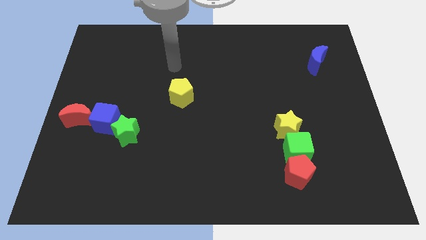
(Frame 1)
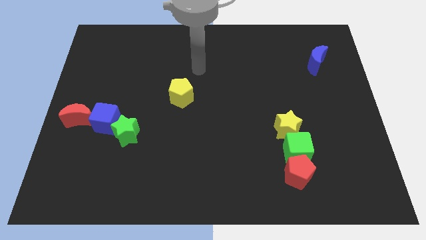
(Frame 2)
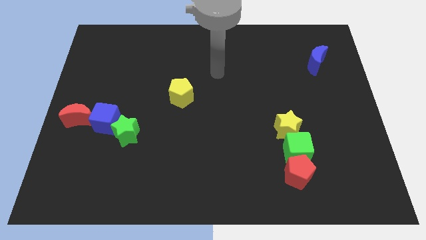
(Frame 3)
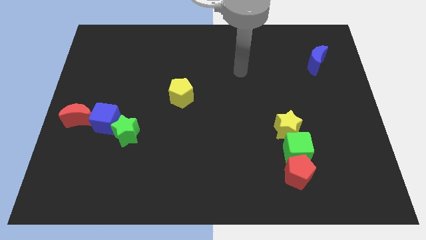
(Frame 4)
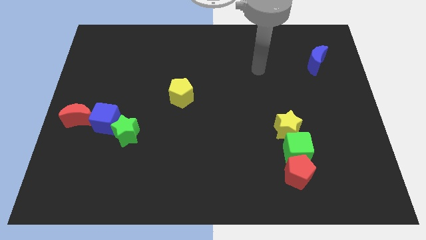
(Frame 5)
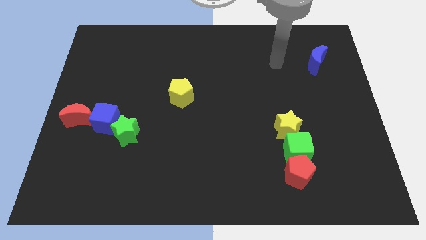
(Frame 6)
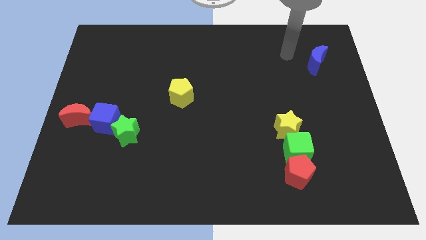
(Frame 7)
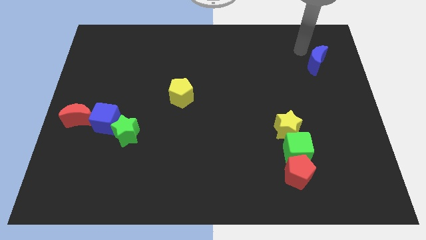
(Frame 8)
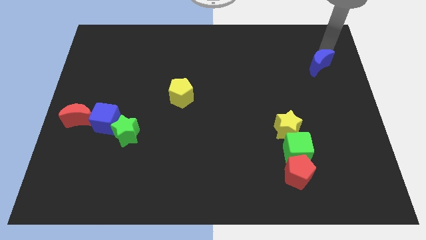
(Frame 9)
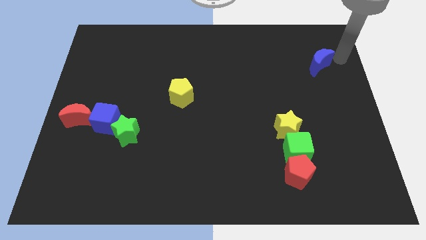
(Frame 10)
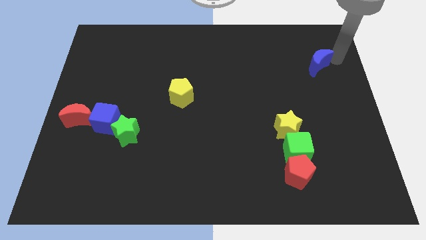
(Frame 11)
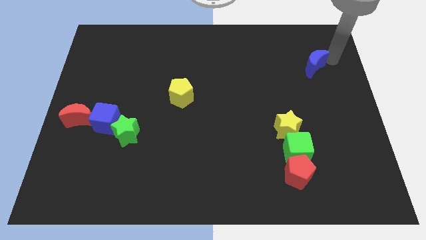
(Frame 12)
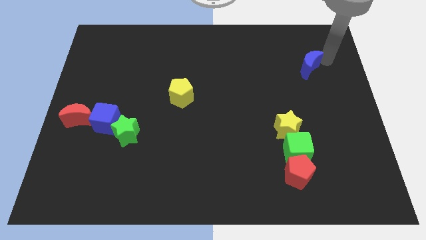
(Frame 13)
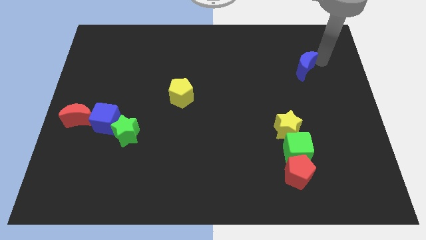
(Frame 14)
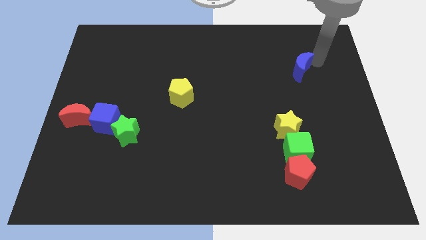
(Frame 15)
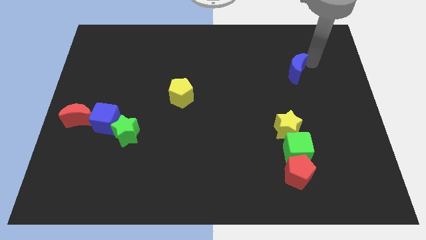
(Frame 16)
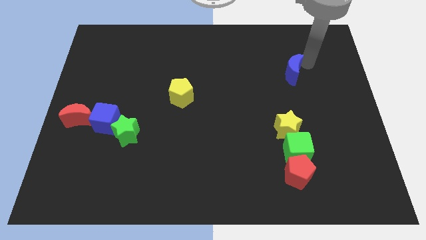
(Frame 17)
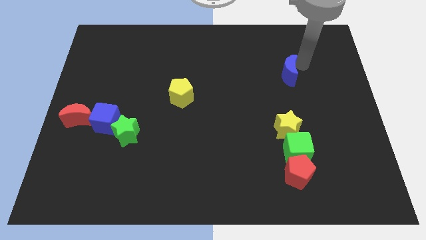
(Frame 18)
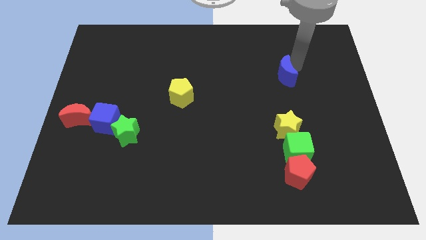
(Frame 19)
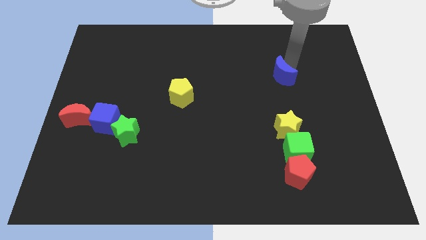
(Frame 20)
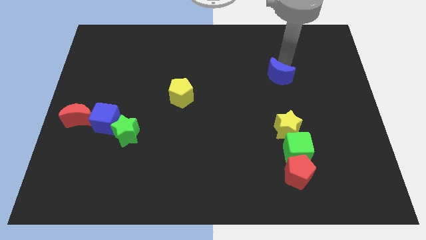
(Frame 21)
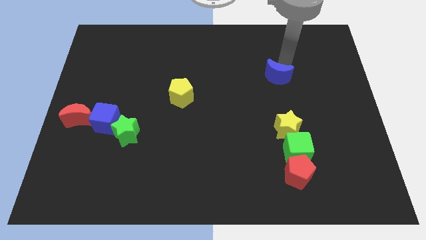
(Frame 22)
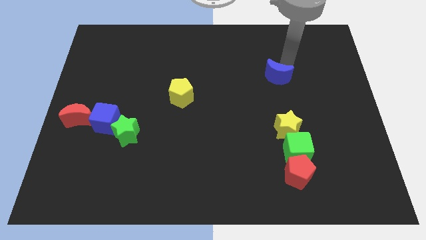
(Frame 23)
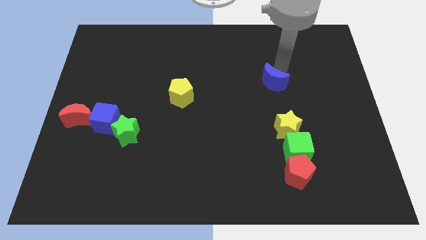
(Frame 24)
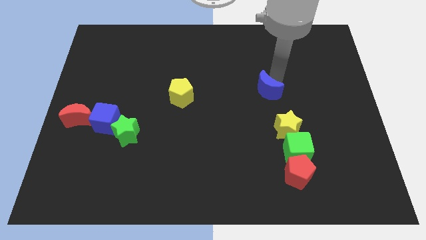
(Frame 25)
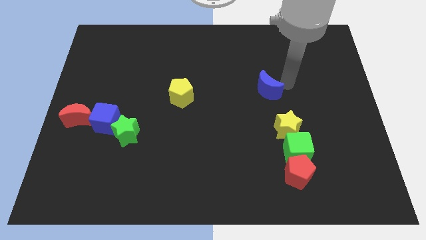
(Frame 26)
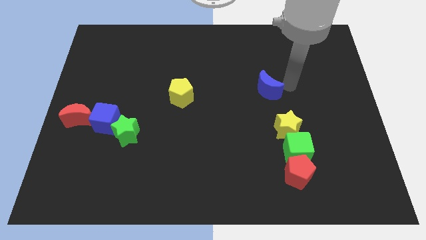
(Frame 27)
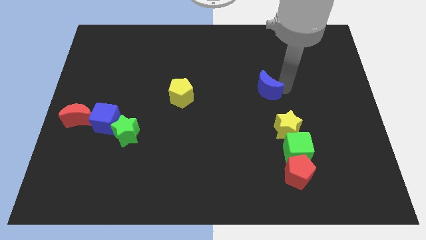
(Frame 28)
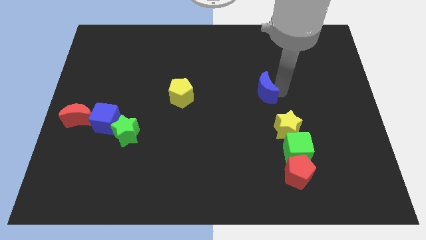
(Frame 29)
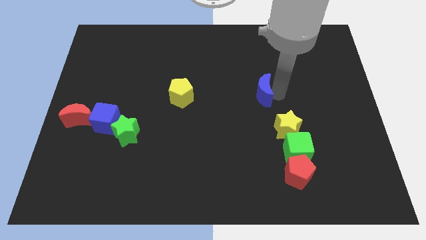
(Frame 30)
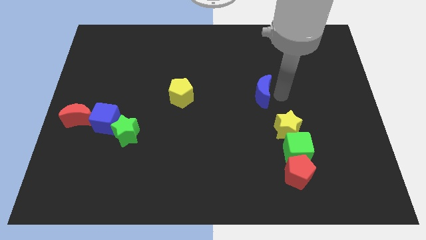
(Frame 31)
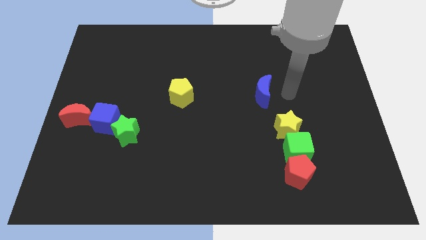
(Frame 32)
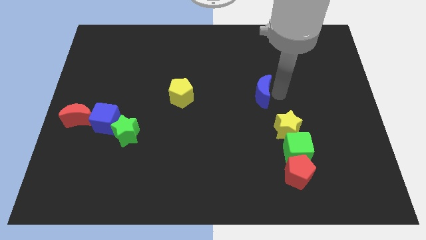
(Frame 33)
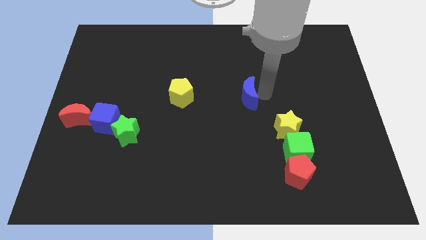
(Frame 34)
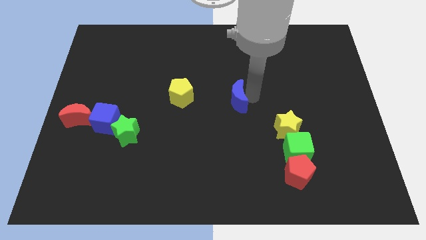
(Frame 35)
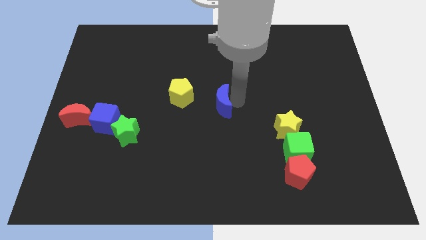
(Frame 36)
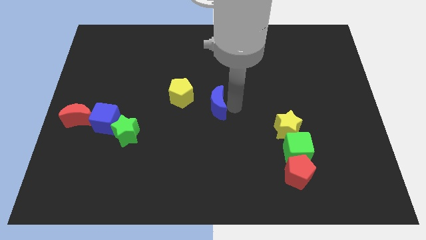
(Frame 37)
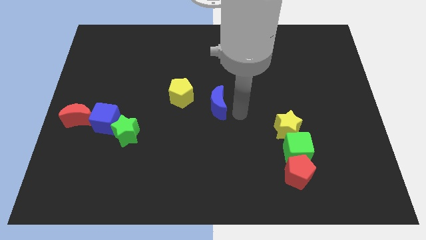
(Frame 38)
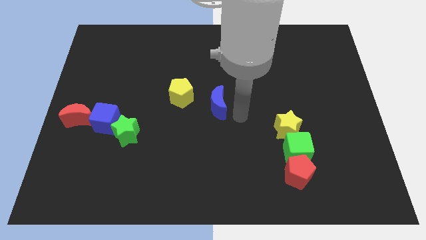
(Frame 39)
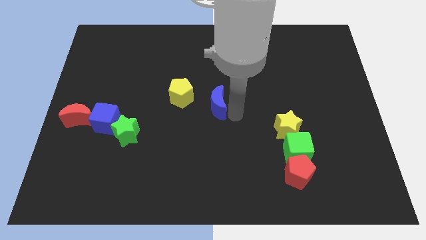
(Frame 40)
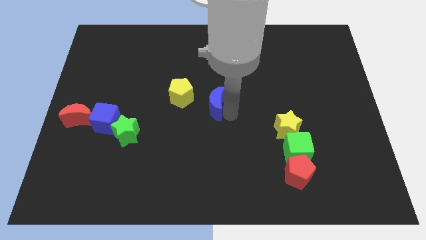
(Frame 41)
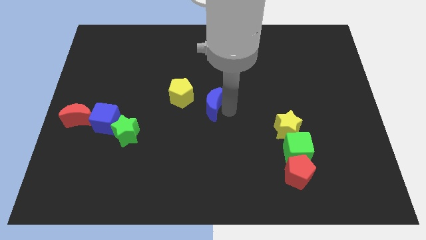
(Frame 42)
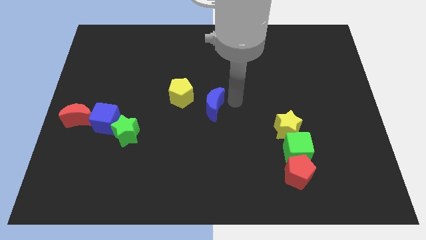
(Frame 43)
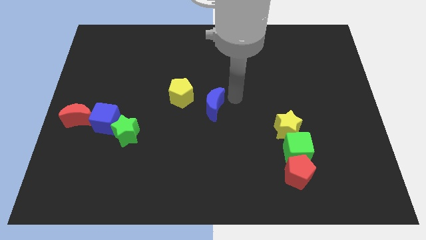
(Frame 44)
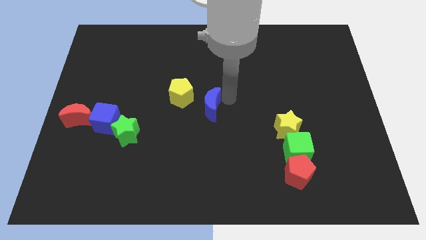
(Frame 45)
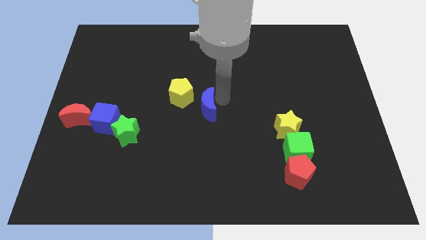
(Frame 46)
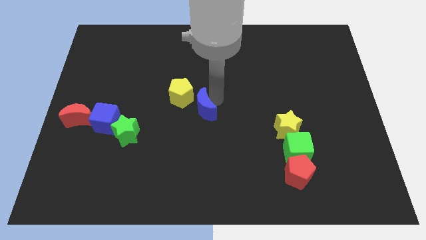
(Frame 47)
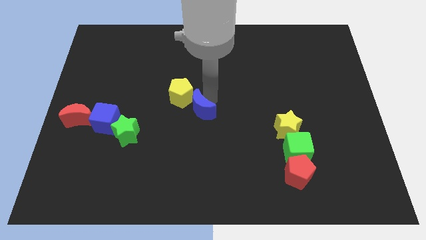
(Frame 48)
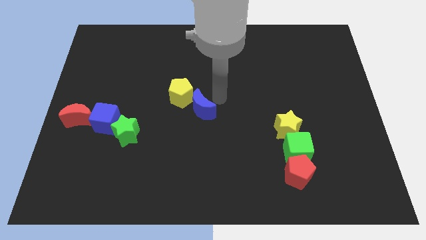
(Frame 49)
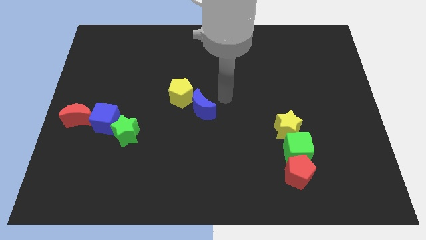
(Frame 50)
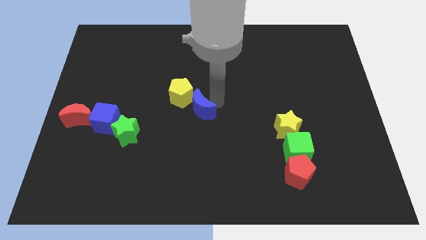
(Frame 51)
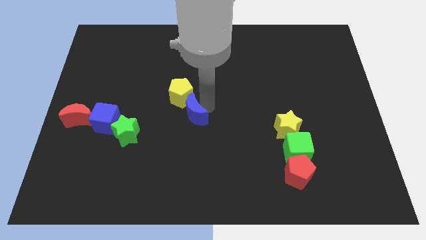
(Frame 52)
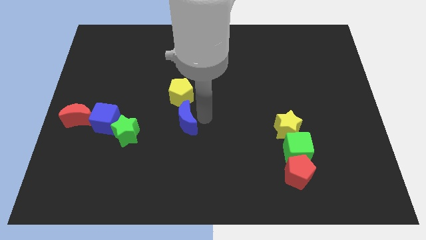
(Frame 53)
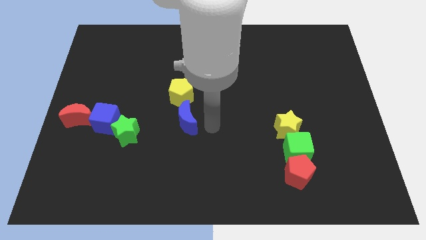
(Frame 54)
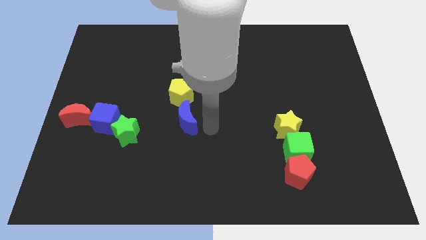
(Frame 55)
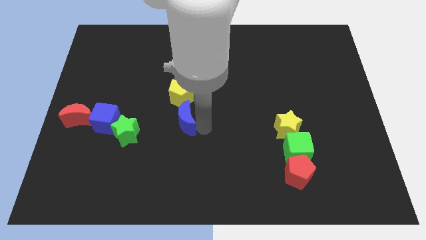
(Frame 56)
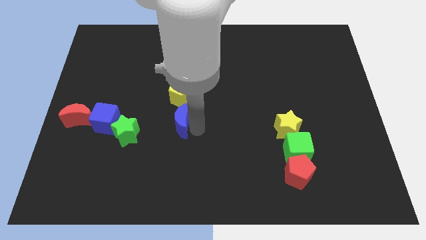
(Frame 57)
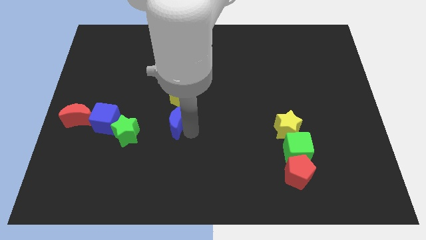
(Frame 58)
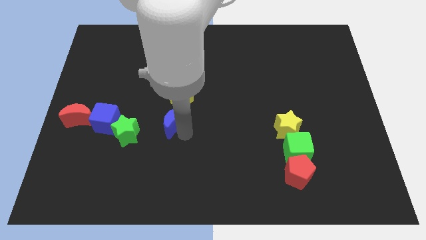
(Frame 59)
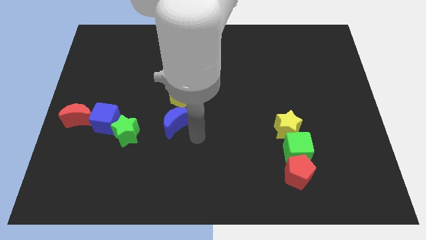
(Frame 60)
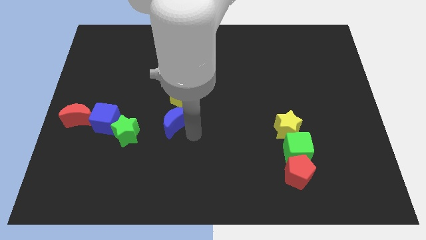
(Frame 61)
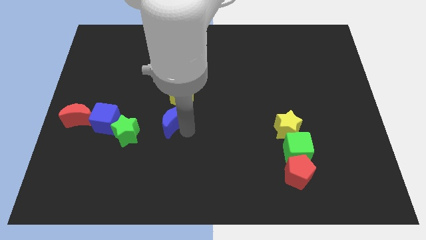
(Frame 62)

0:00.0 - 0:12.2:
slide the blue moon to the bottom left side of the yellow pentagon

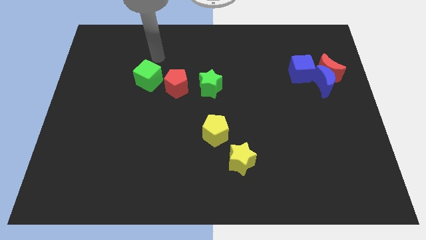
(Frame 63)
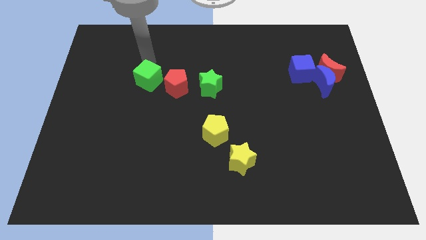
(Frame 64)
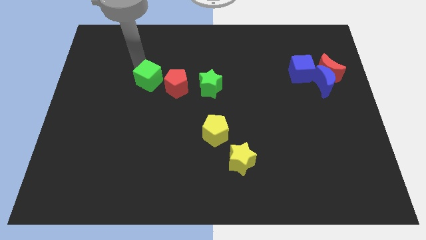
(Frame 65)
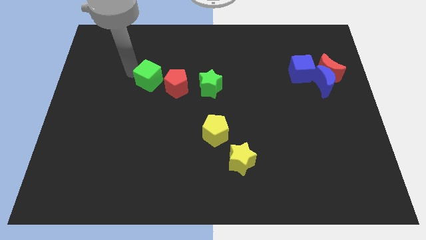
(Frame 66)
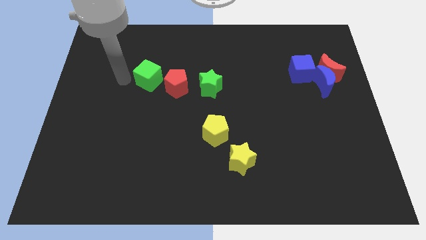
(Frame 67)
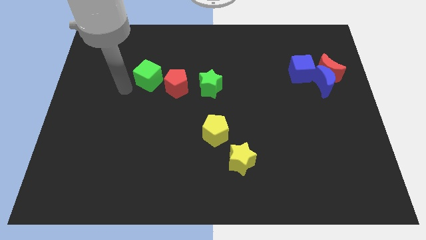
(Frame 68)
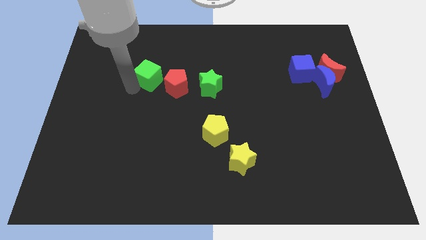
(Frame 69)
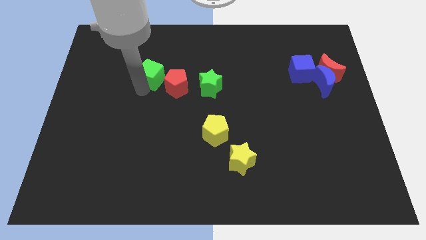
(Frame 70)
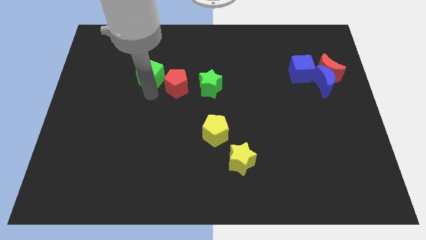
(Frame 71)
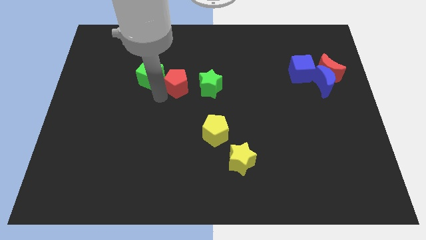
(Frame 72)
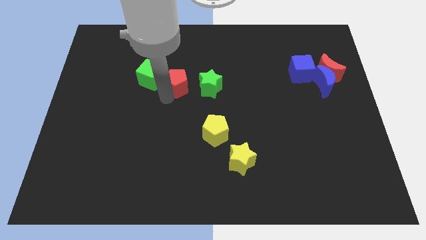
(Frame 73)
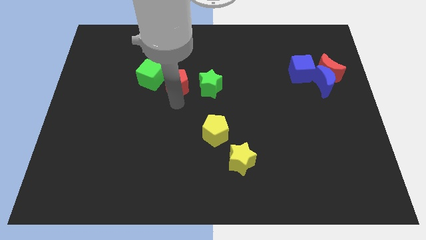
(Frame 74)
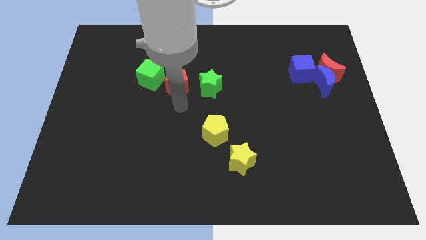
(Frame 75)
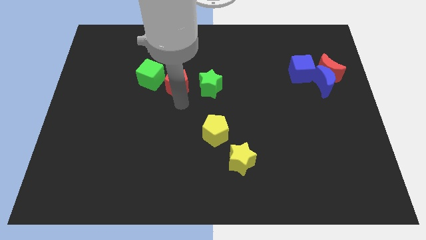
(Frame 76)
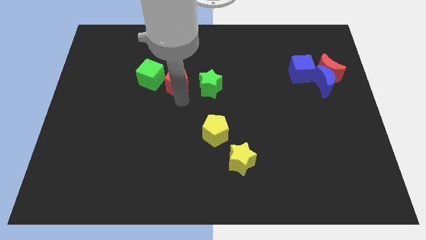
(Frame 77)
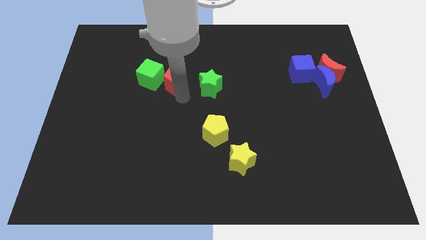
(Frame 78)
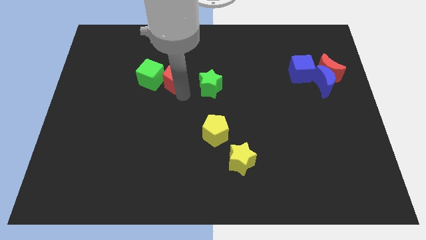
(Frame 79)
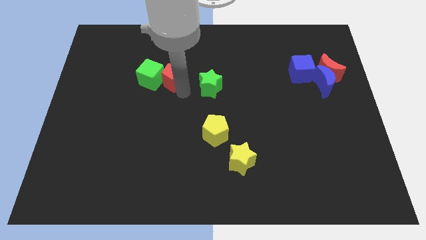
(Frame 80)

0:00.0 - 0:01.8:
put the red pentagon diagonally up and to the right of the green cube
